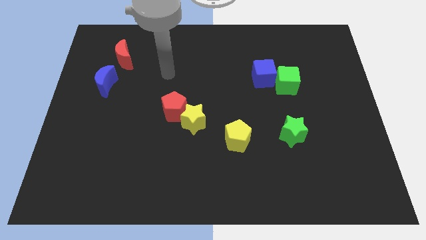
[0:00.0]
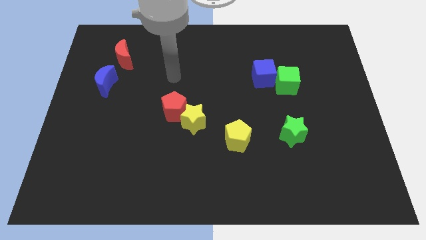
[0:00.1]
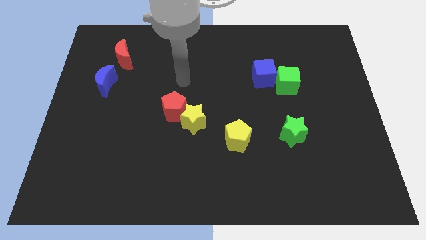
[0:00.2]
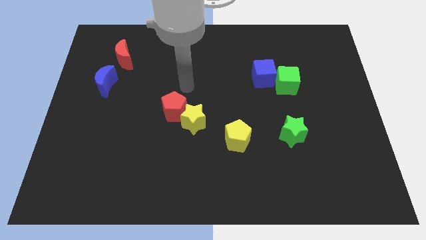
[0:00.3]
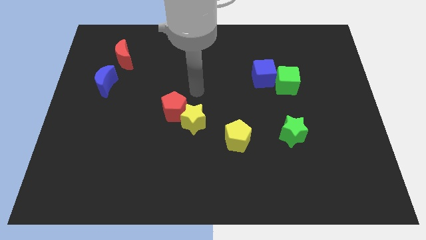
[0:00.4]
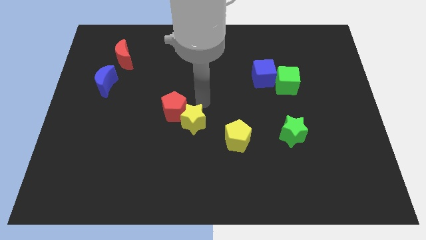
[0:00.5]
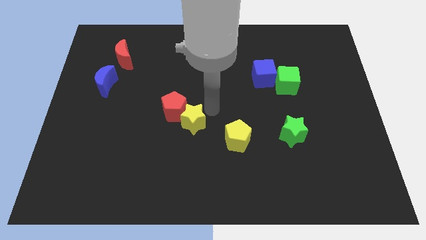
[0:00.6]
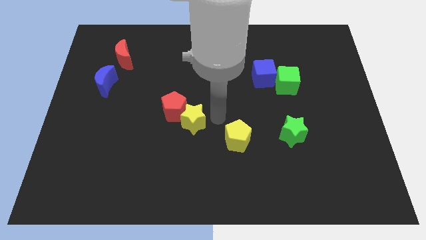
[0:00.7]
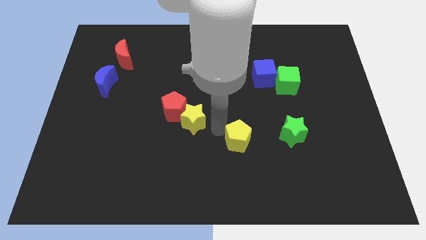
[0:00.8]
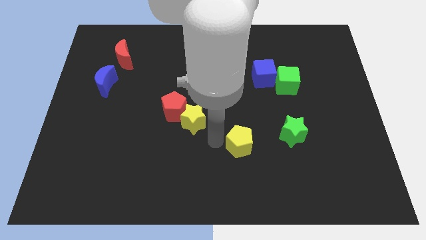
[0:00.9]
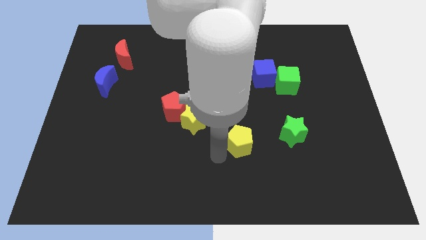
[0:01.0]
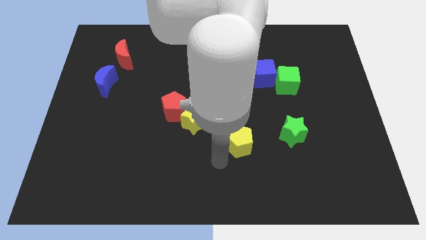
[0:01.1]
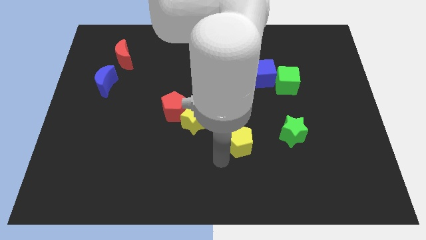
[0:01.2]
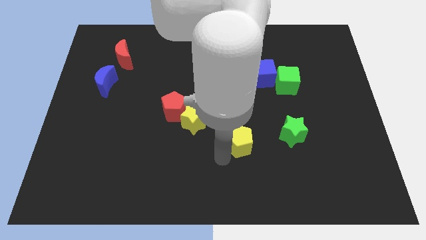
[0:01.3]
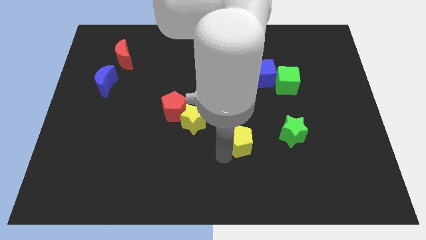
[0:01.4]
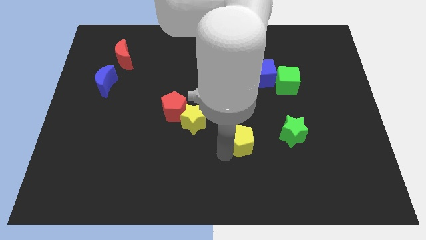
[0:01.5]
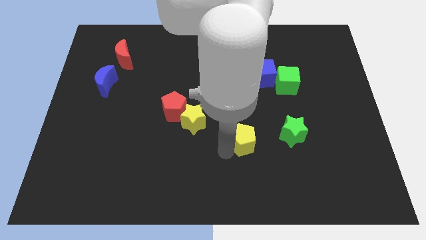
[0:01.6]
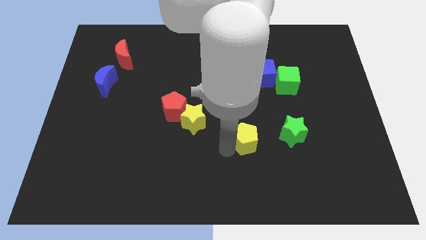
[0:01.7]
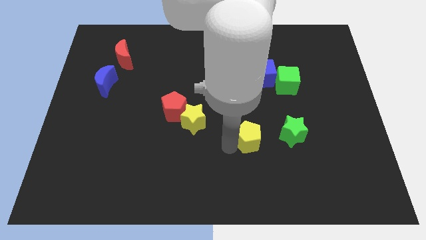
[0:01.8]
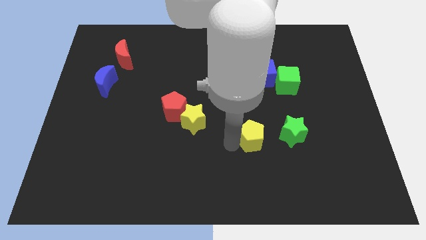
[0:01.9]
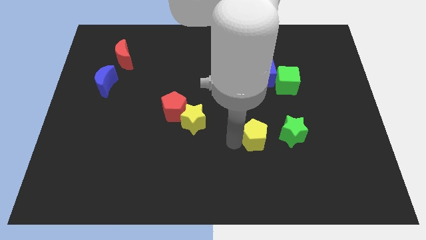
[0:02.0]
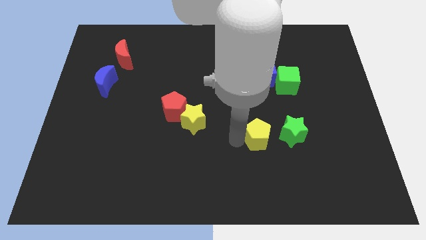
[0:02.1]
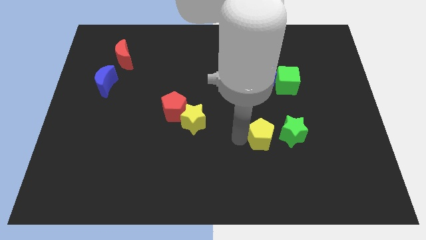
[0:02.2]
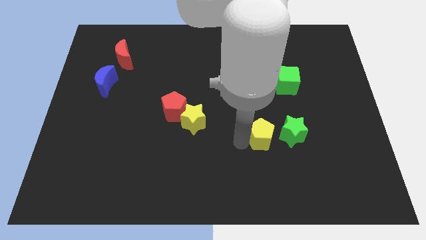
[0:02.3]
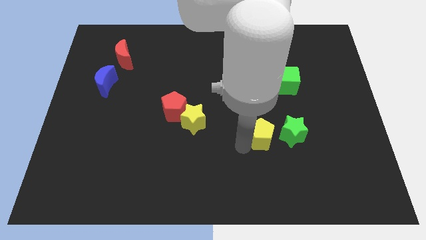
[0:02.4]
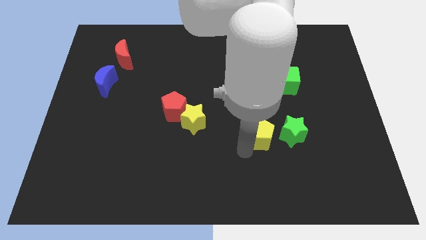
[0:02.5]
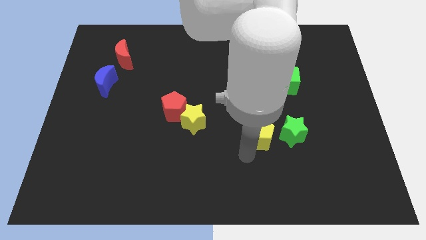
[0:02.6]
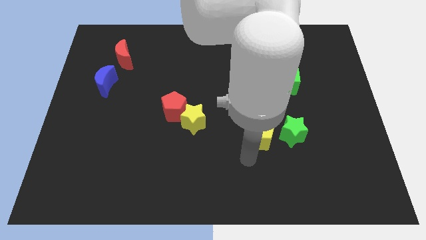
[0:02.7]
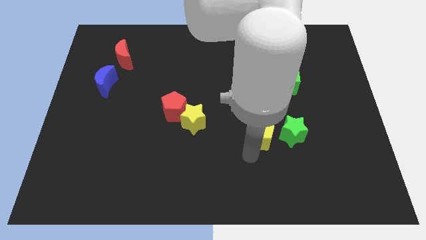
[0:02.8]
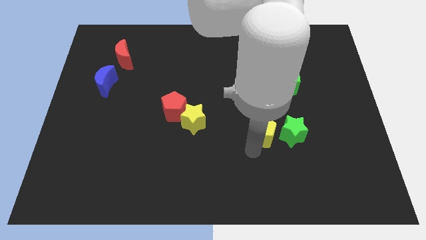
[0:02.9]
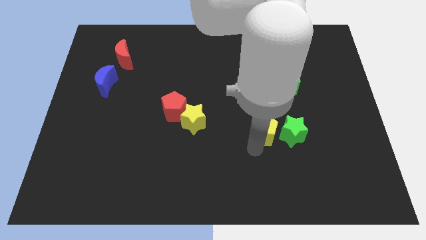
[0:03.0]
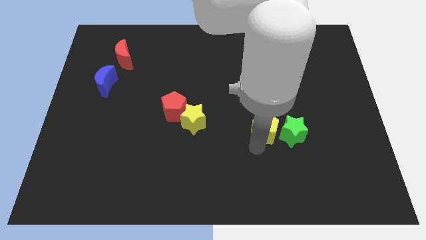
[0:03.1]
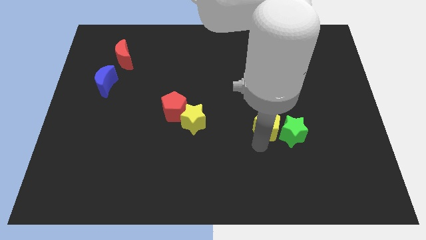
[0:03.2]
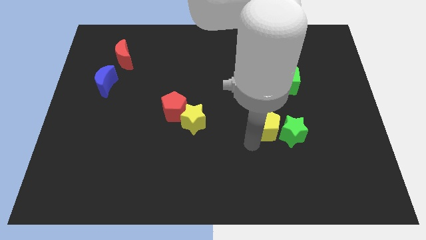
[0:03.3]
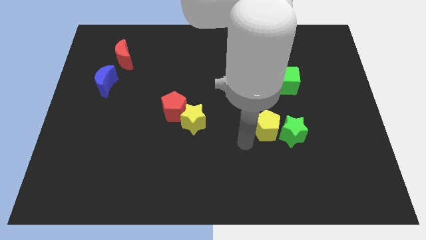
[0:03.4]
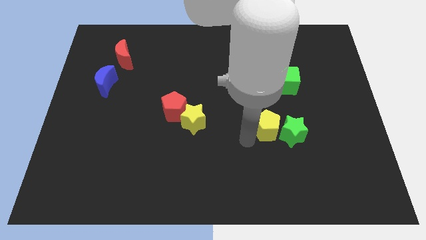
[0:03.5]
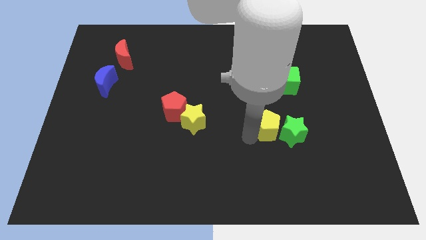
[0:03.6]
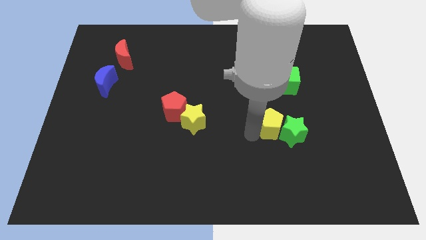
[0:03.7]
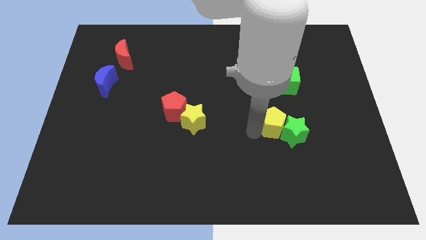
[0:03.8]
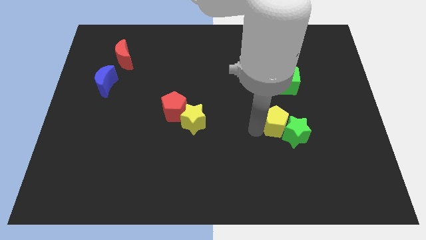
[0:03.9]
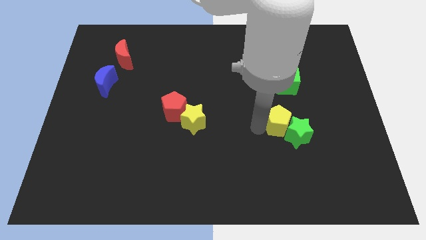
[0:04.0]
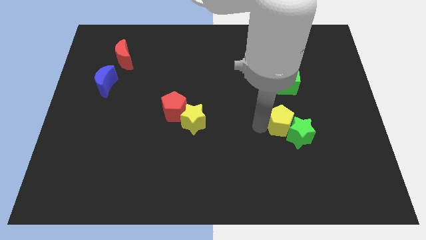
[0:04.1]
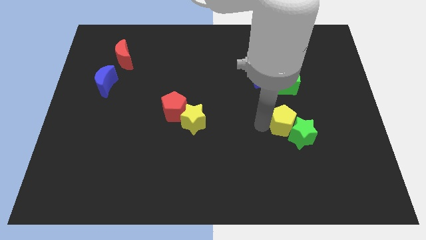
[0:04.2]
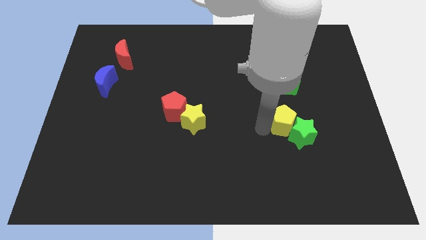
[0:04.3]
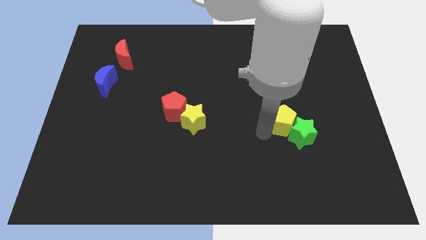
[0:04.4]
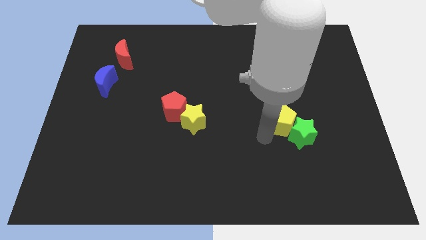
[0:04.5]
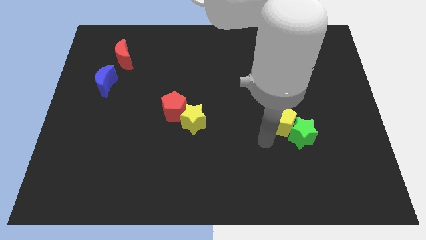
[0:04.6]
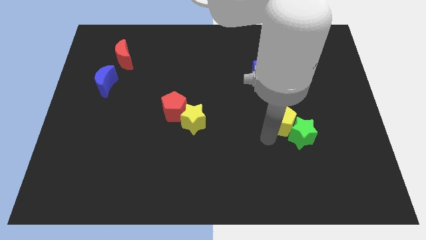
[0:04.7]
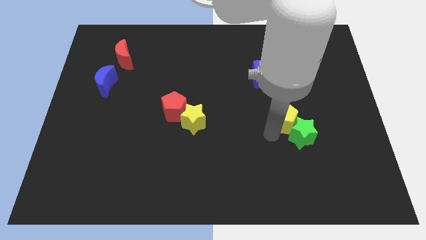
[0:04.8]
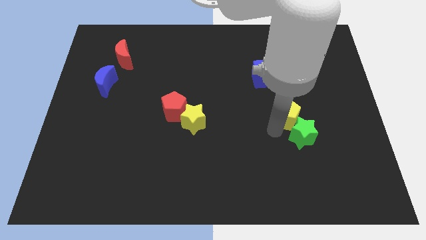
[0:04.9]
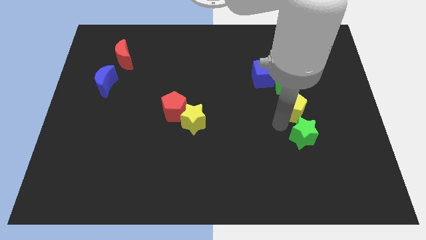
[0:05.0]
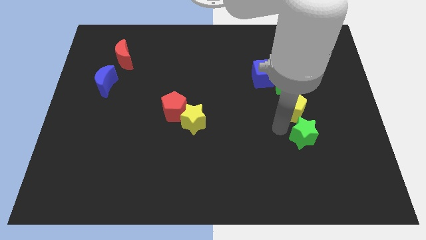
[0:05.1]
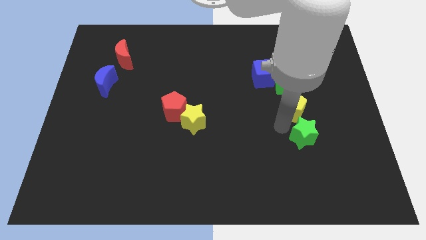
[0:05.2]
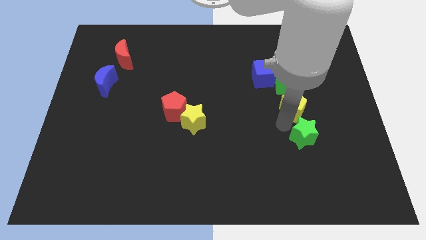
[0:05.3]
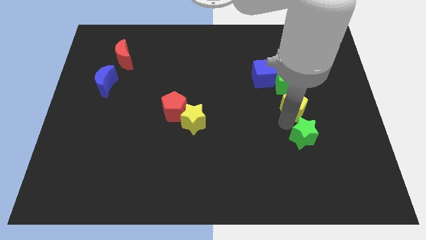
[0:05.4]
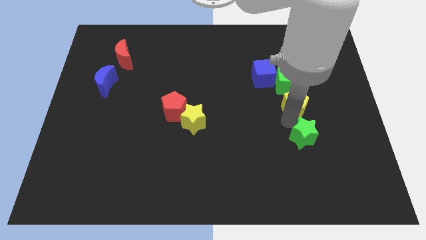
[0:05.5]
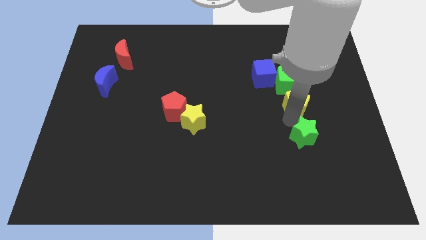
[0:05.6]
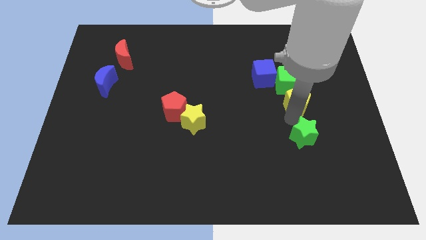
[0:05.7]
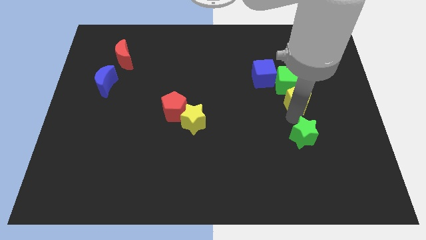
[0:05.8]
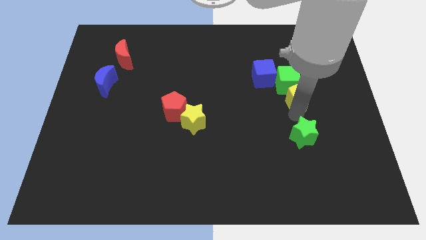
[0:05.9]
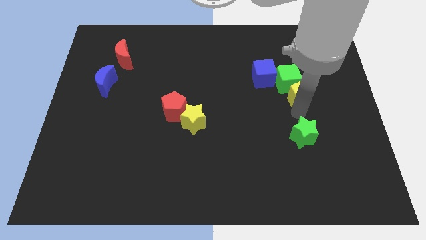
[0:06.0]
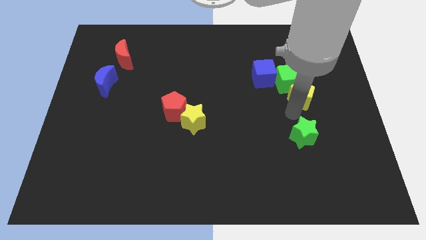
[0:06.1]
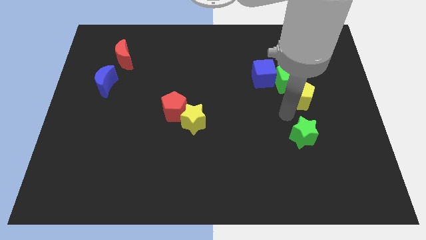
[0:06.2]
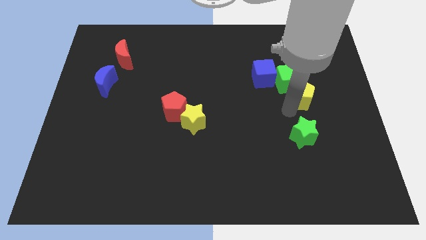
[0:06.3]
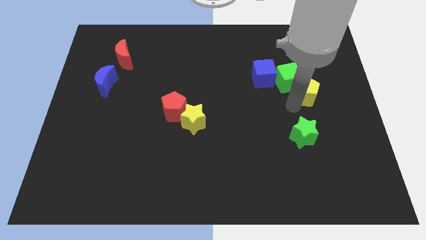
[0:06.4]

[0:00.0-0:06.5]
slide the yellow pentagon upwards and to the right diagonally

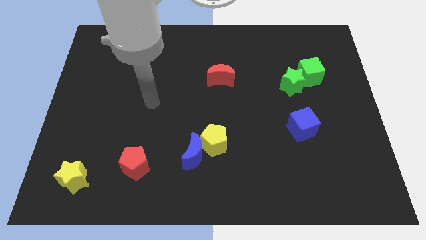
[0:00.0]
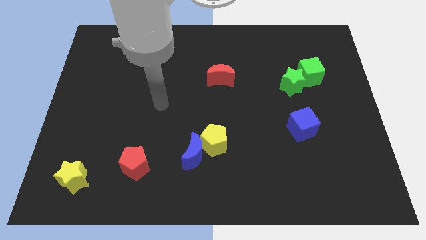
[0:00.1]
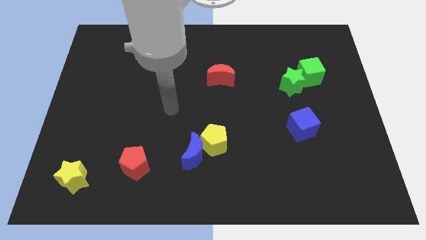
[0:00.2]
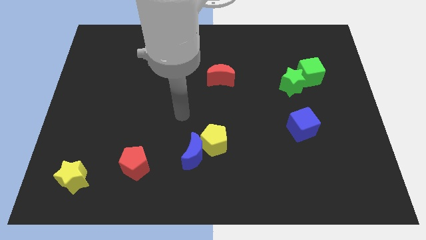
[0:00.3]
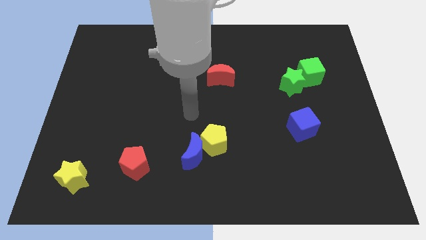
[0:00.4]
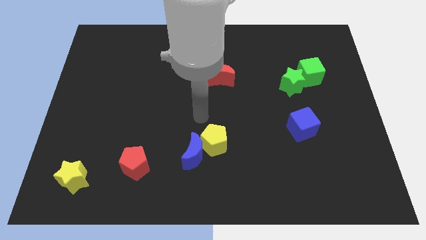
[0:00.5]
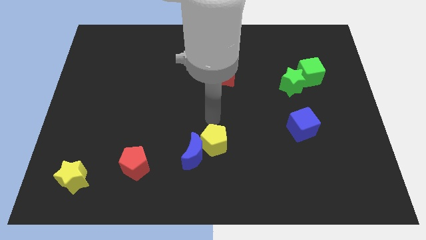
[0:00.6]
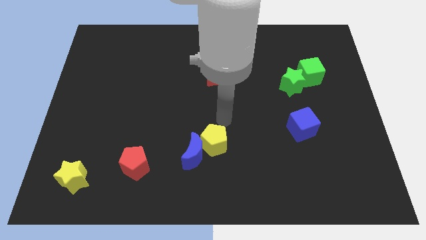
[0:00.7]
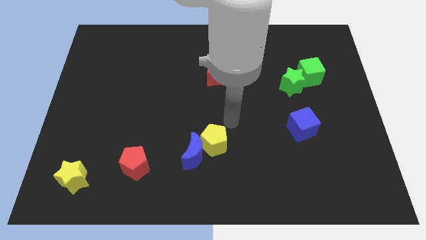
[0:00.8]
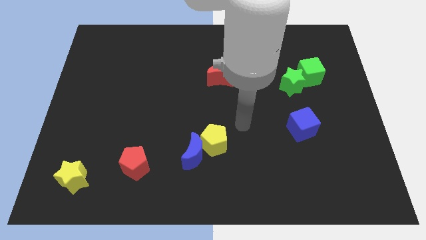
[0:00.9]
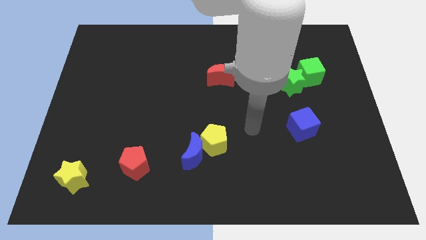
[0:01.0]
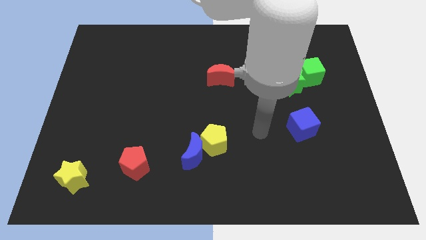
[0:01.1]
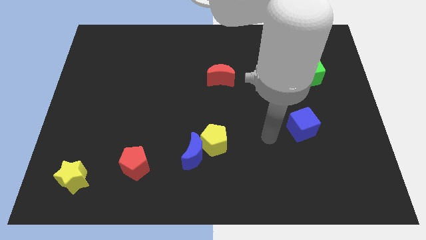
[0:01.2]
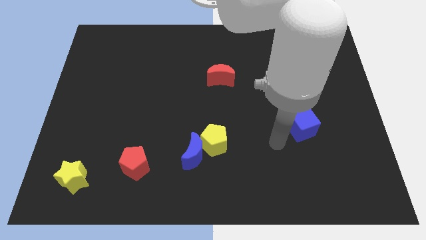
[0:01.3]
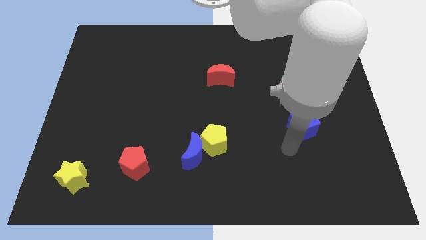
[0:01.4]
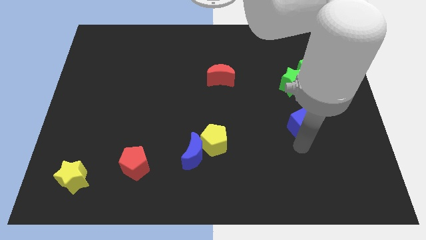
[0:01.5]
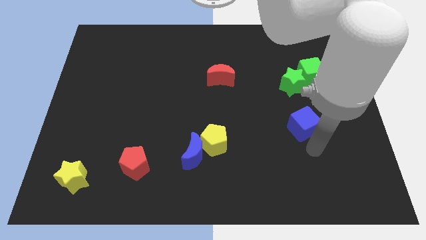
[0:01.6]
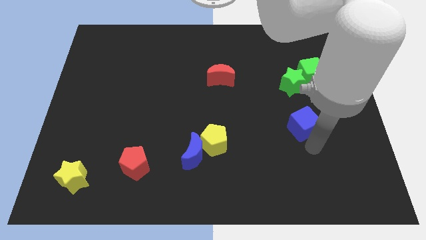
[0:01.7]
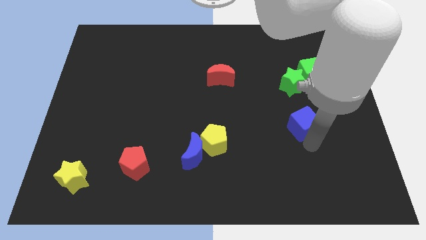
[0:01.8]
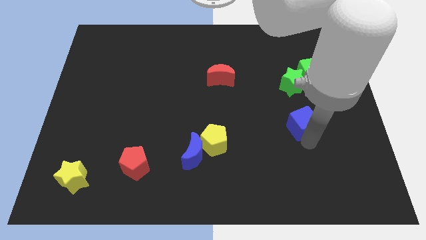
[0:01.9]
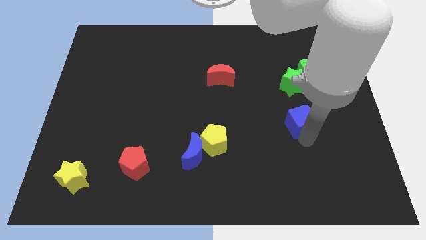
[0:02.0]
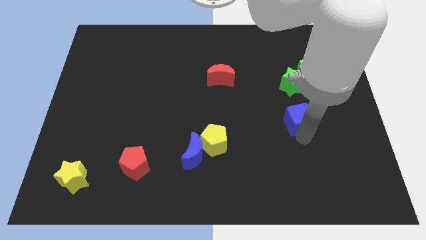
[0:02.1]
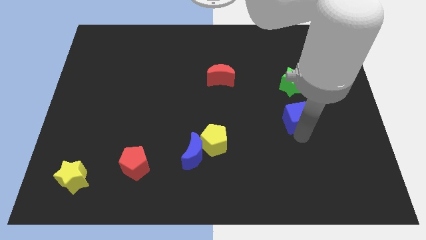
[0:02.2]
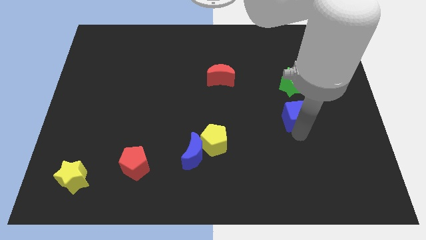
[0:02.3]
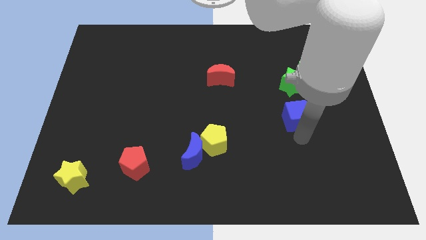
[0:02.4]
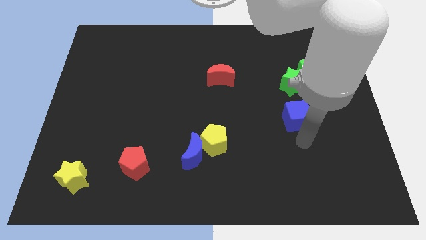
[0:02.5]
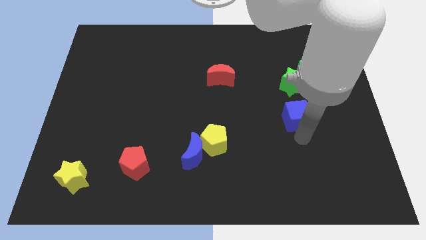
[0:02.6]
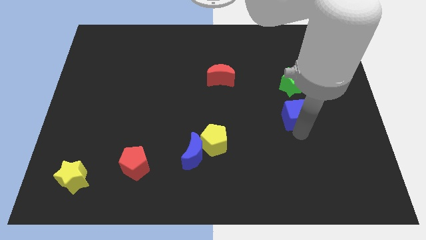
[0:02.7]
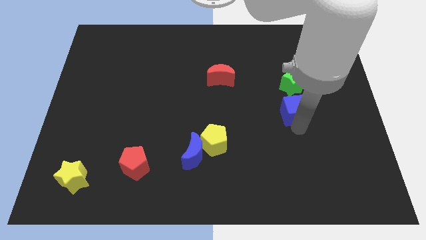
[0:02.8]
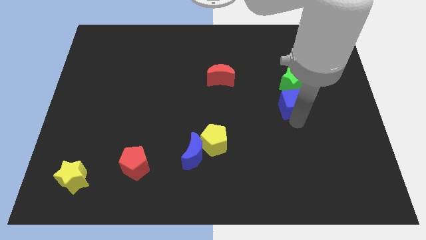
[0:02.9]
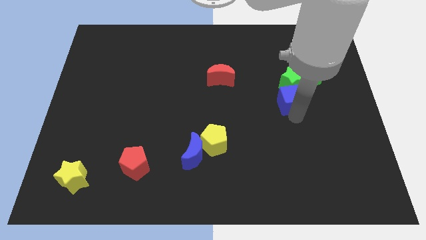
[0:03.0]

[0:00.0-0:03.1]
slightly push the blue cube upwards
